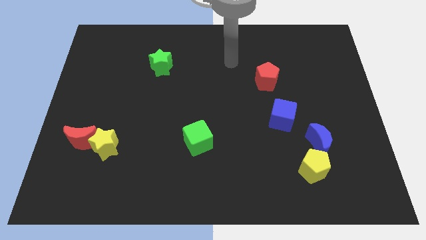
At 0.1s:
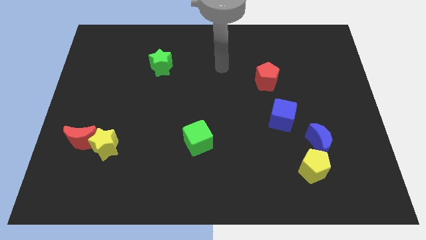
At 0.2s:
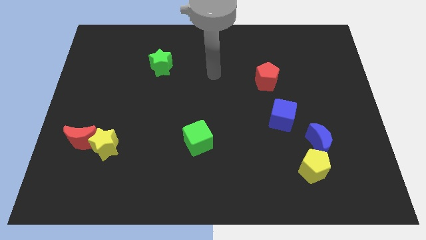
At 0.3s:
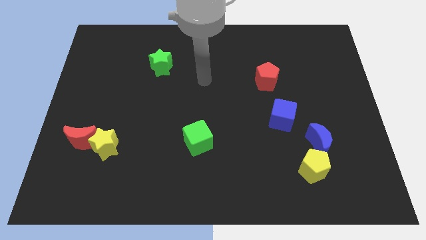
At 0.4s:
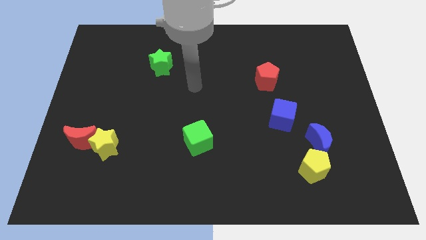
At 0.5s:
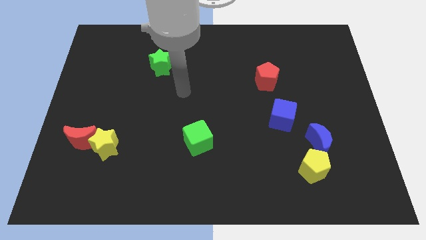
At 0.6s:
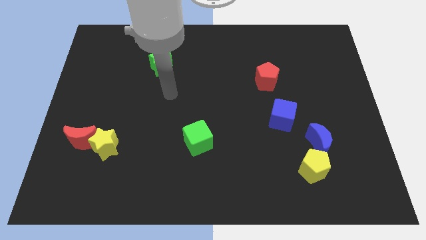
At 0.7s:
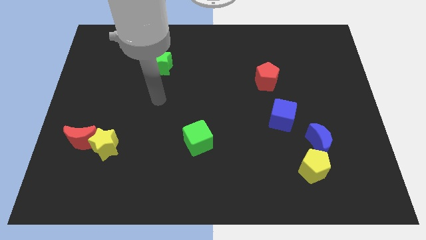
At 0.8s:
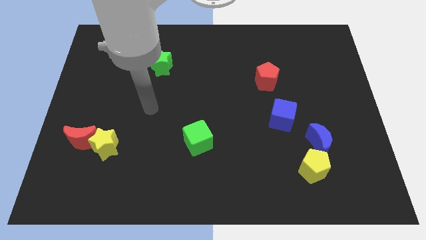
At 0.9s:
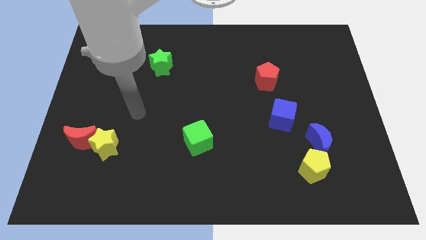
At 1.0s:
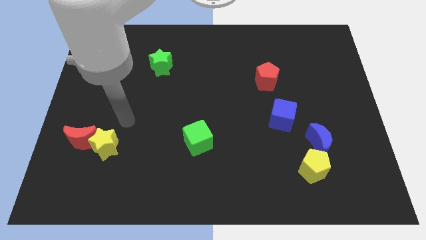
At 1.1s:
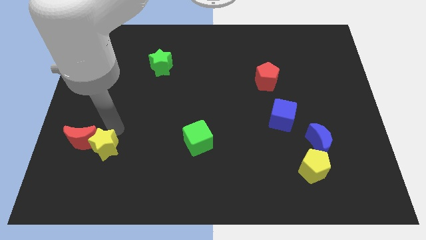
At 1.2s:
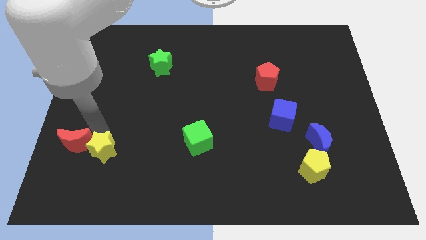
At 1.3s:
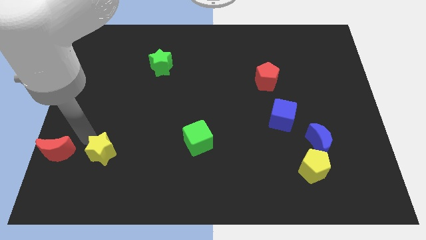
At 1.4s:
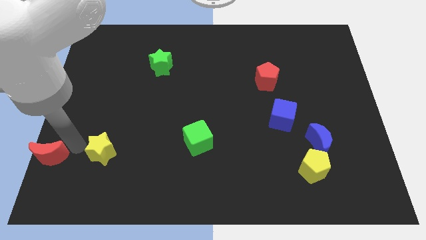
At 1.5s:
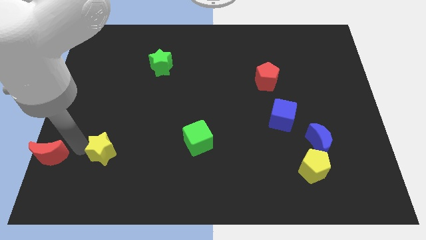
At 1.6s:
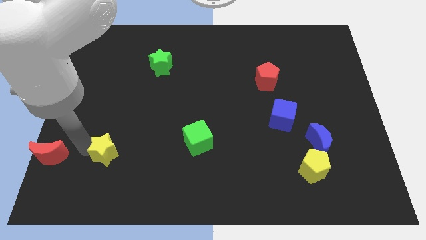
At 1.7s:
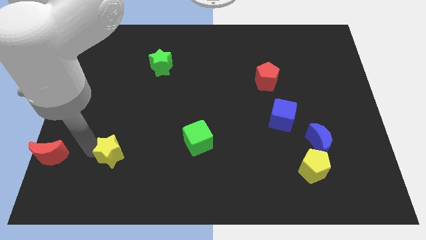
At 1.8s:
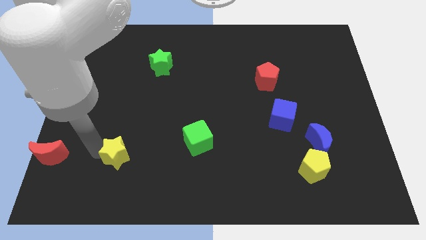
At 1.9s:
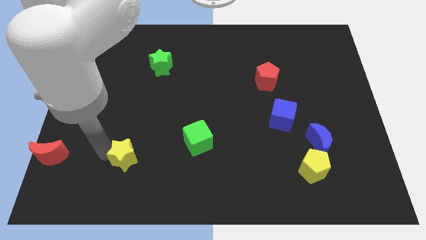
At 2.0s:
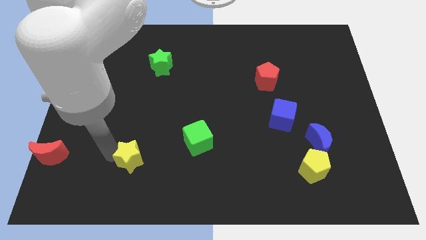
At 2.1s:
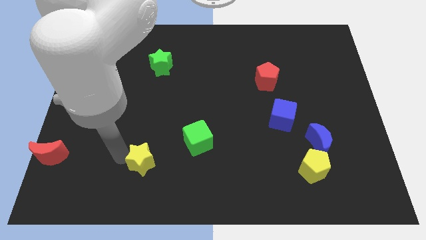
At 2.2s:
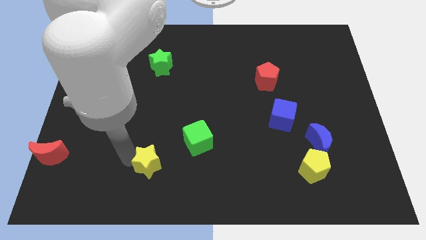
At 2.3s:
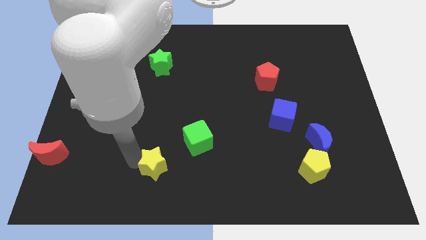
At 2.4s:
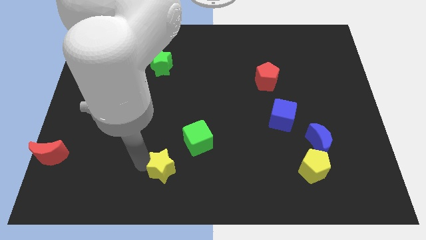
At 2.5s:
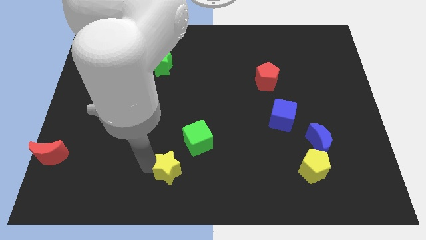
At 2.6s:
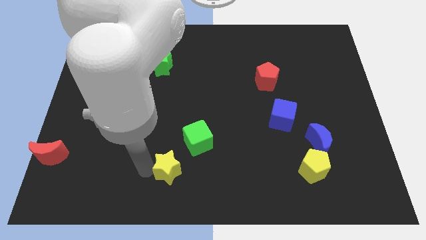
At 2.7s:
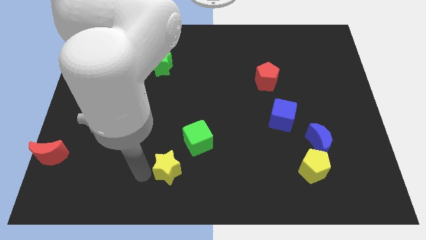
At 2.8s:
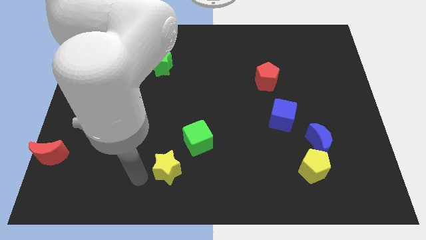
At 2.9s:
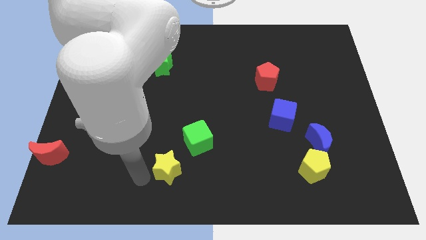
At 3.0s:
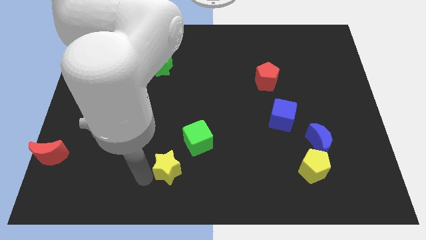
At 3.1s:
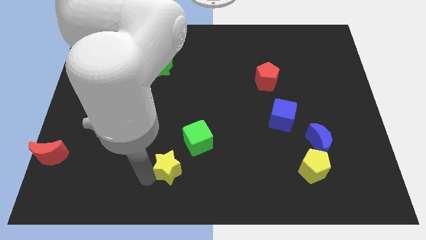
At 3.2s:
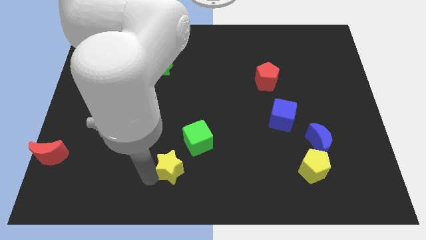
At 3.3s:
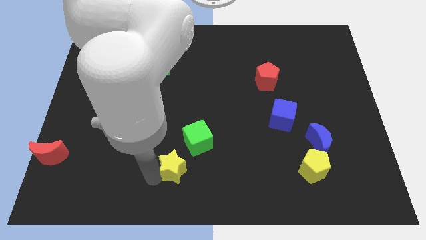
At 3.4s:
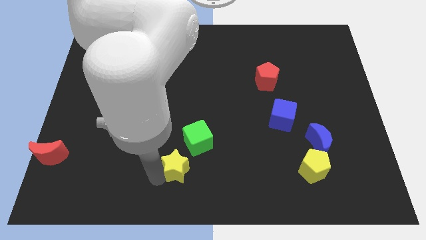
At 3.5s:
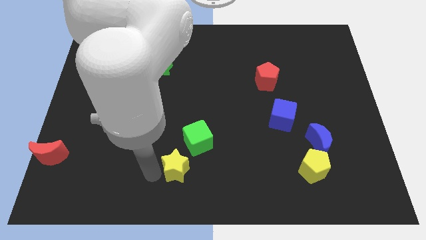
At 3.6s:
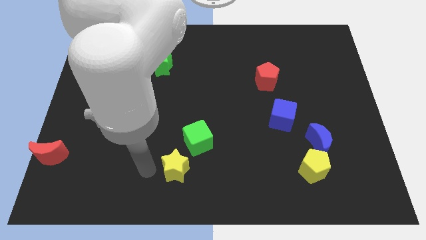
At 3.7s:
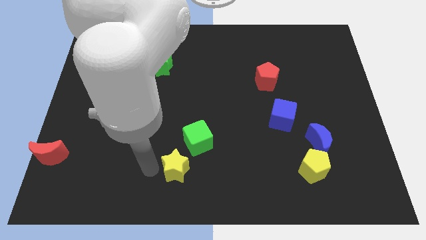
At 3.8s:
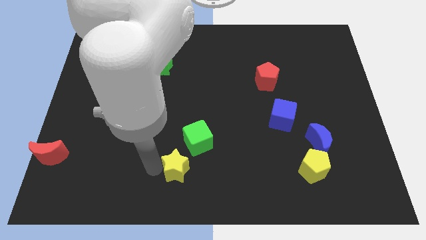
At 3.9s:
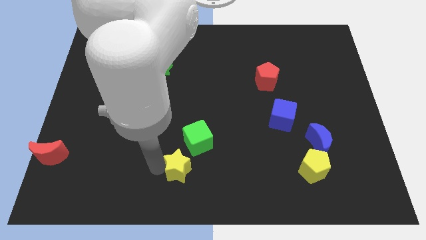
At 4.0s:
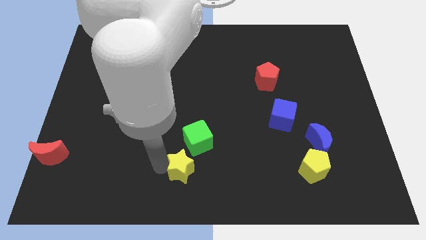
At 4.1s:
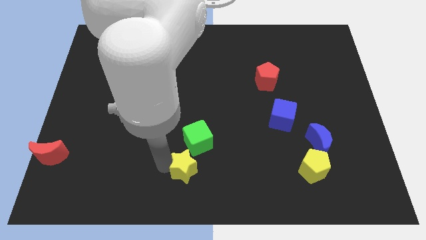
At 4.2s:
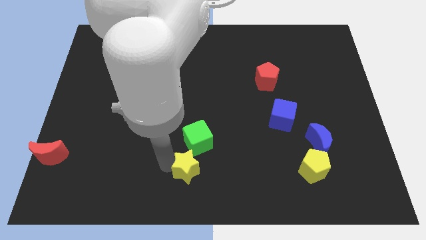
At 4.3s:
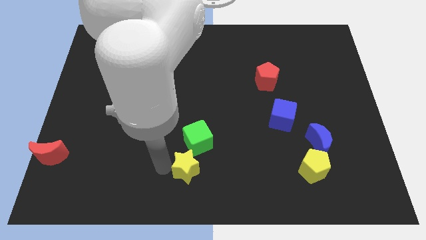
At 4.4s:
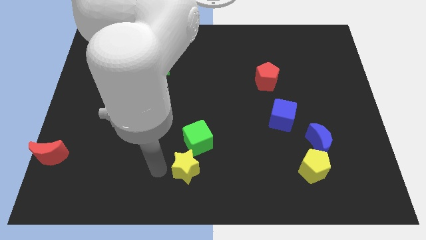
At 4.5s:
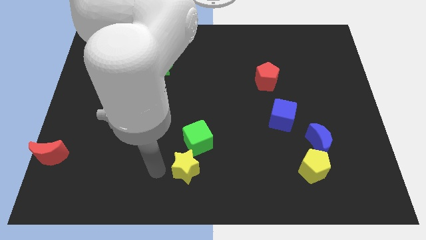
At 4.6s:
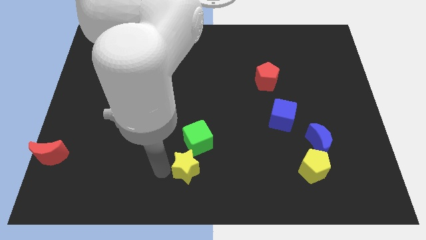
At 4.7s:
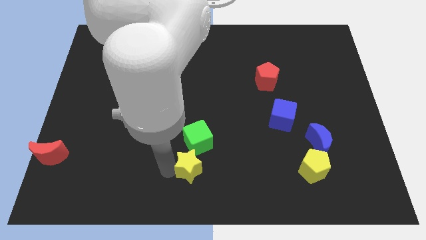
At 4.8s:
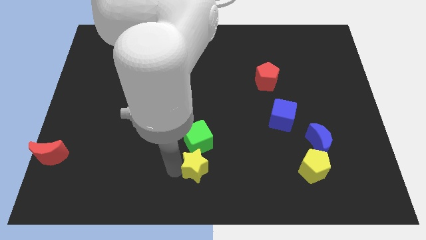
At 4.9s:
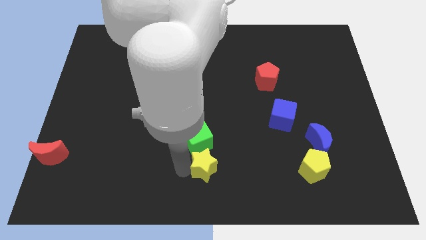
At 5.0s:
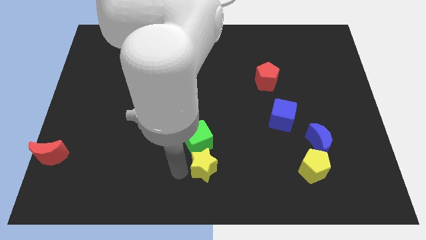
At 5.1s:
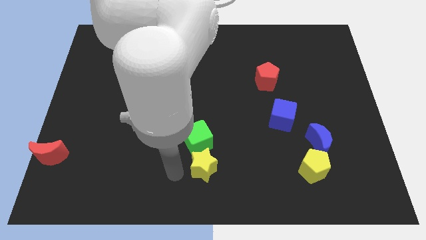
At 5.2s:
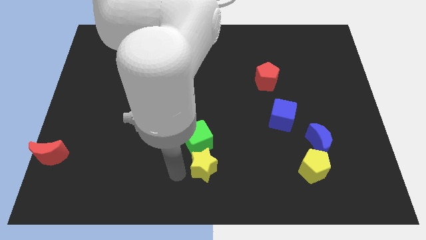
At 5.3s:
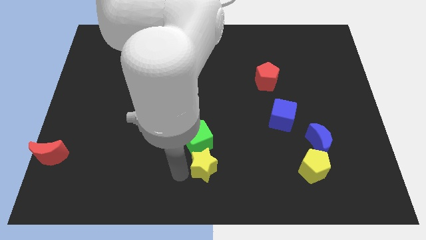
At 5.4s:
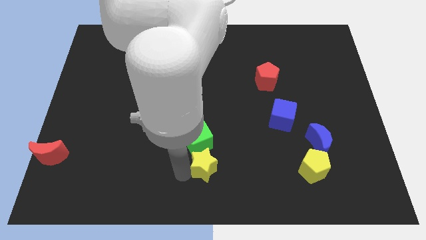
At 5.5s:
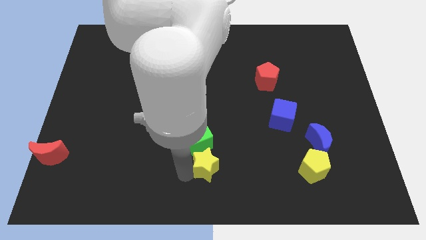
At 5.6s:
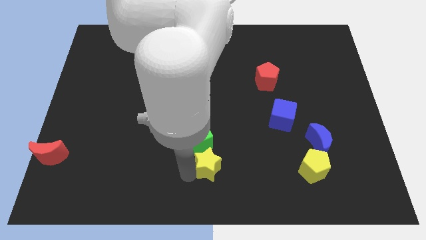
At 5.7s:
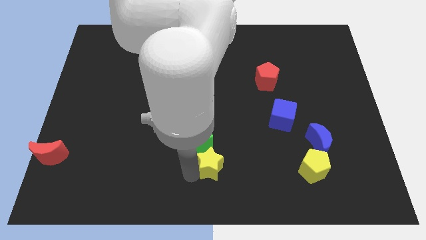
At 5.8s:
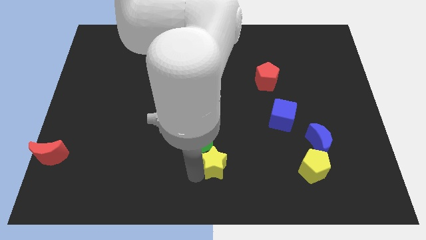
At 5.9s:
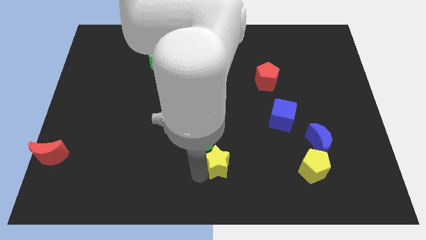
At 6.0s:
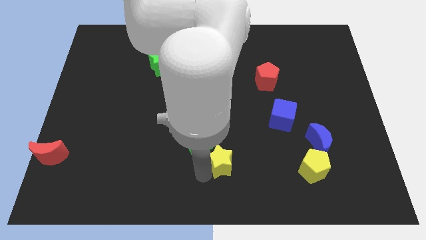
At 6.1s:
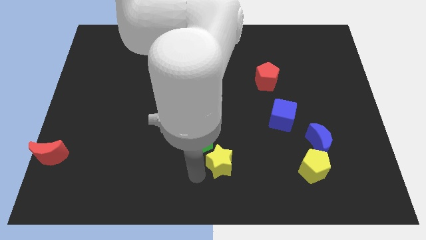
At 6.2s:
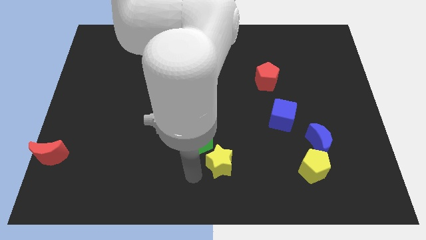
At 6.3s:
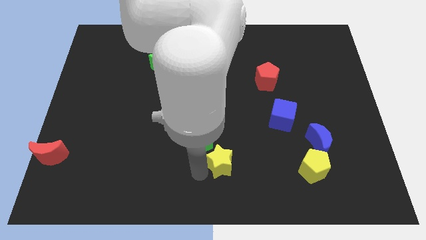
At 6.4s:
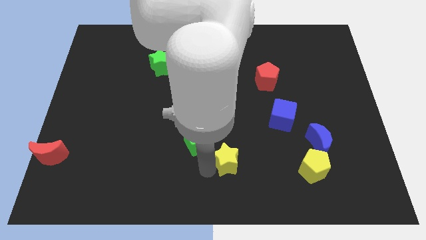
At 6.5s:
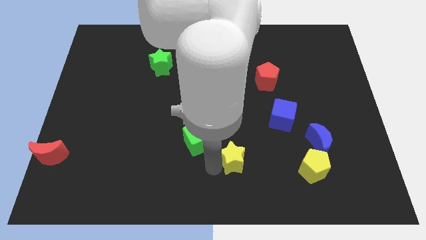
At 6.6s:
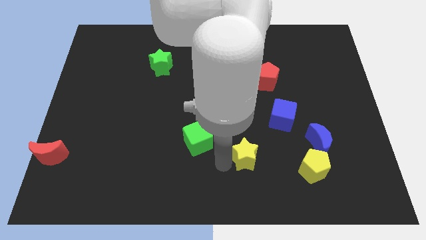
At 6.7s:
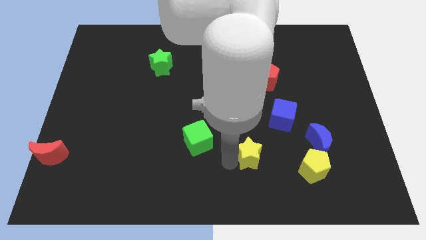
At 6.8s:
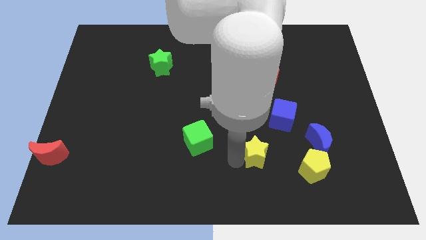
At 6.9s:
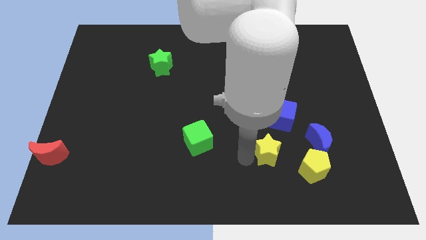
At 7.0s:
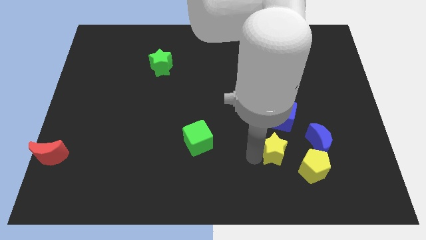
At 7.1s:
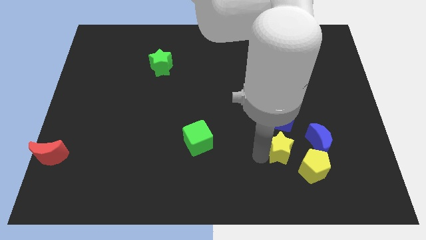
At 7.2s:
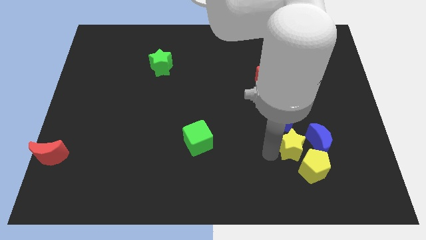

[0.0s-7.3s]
put the yellow star next to the blue moon
